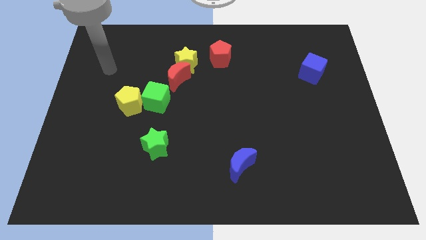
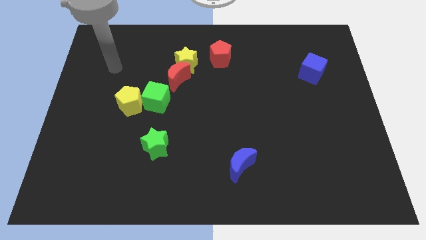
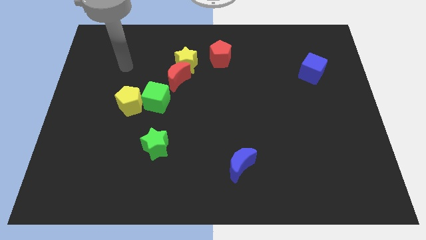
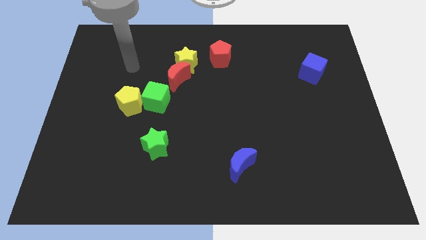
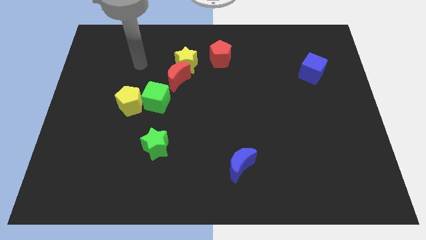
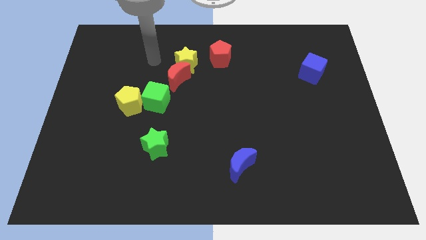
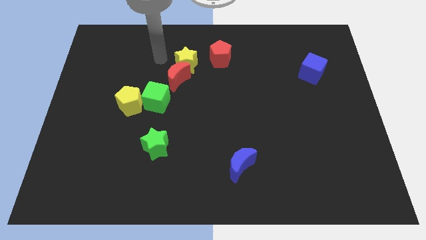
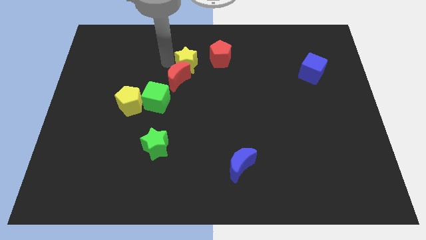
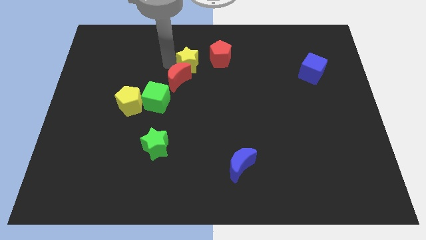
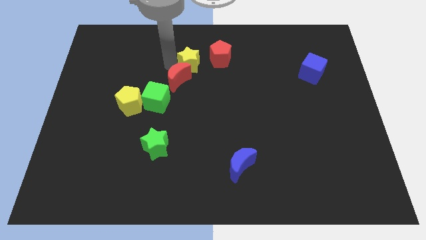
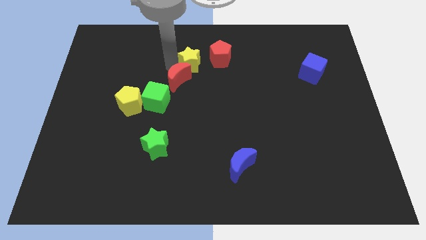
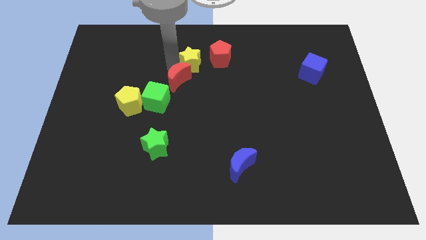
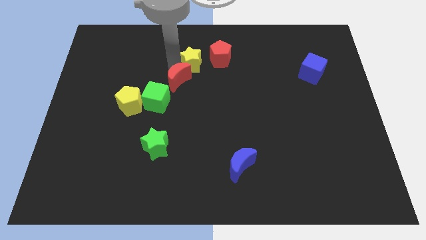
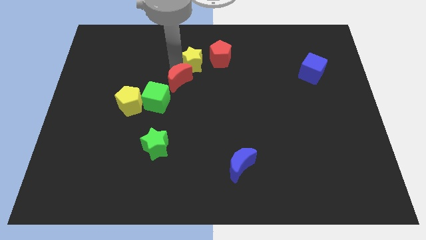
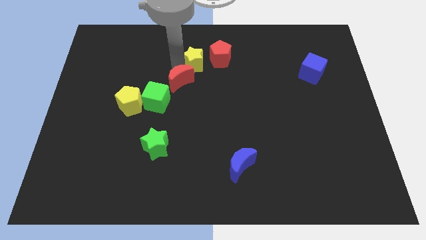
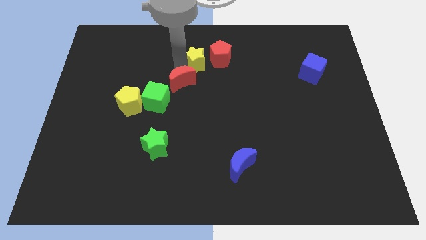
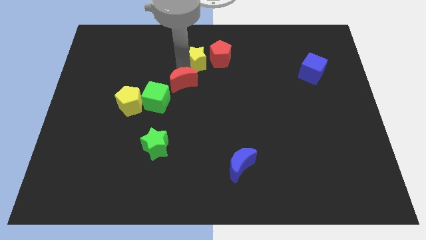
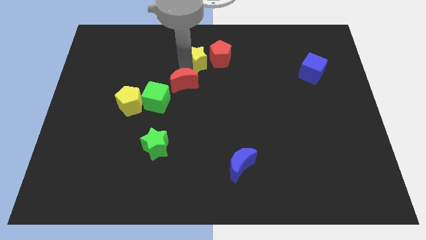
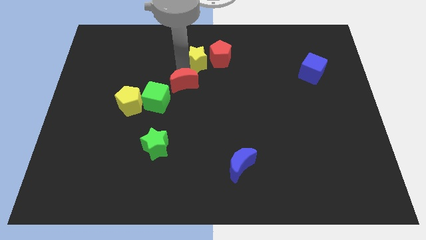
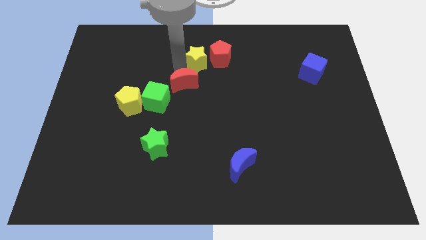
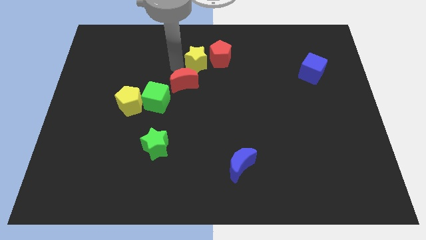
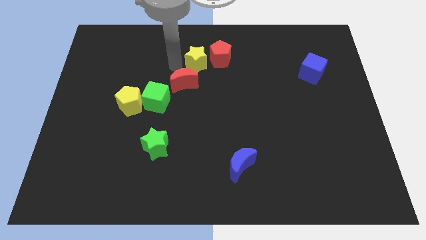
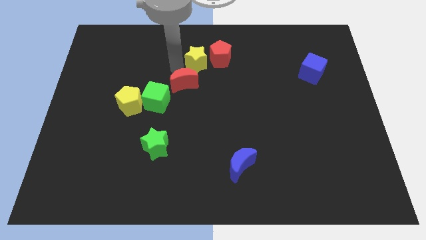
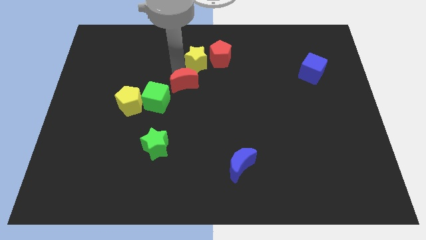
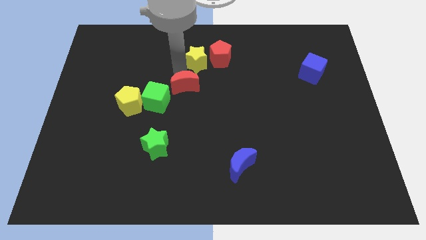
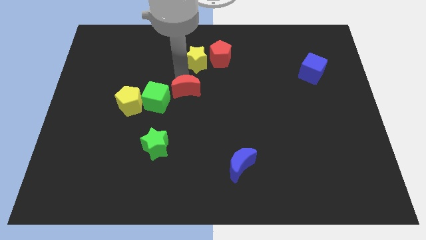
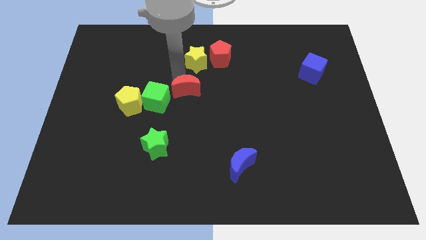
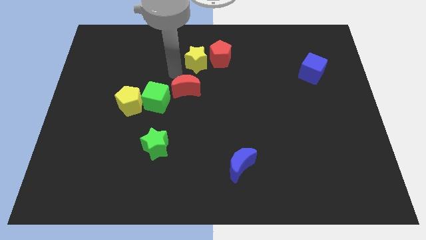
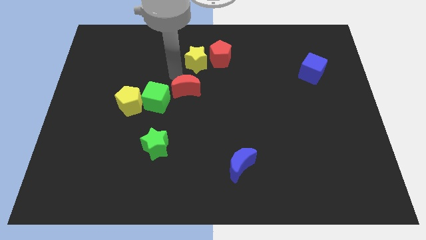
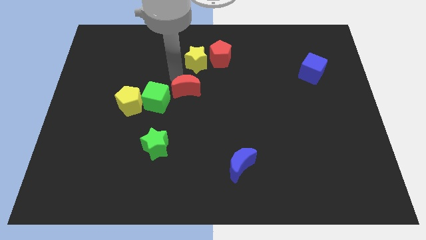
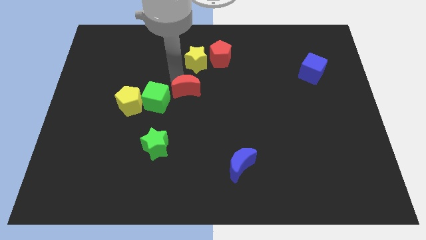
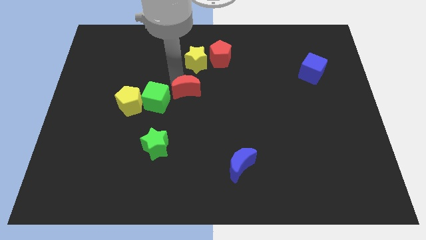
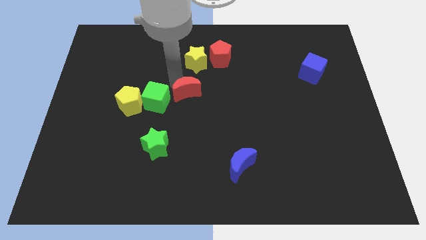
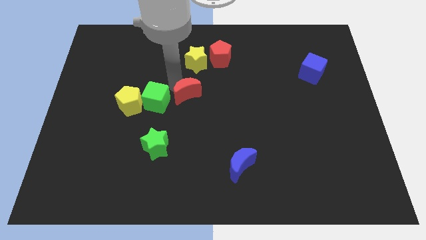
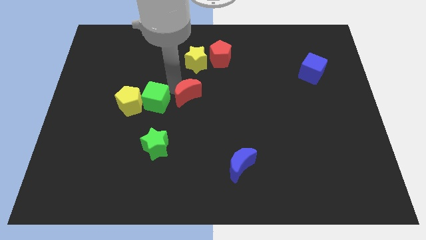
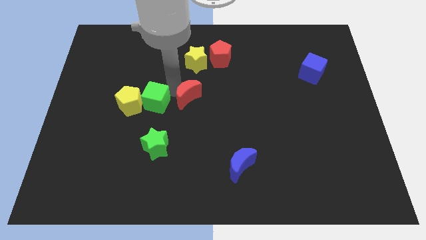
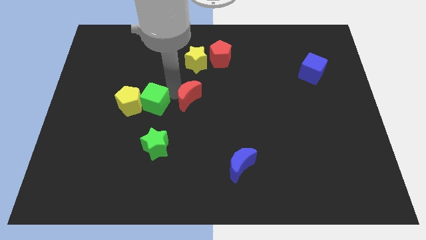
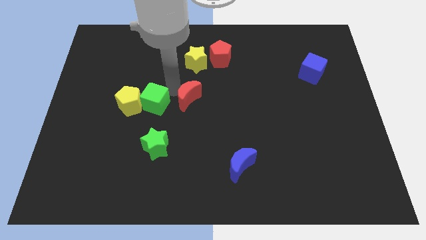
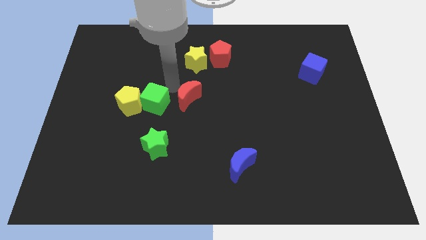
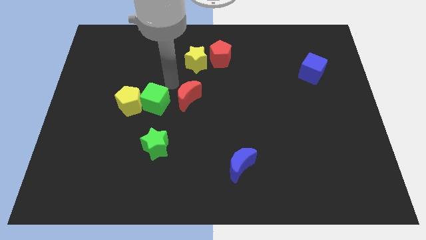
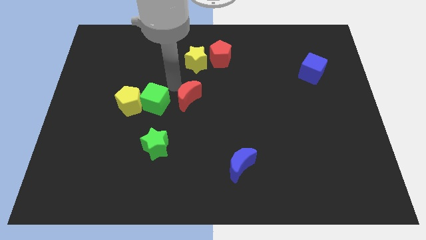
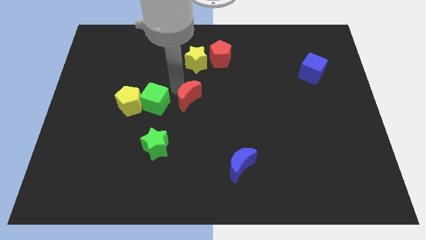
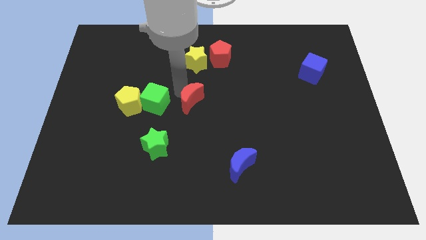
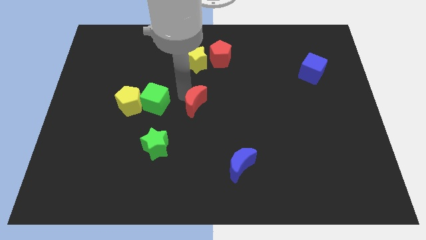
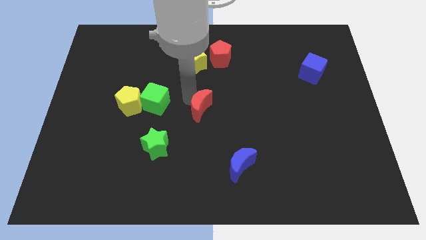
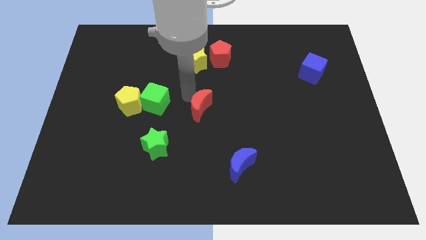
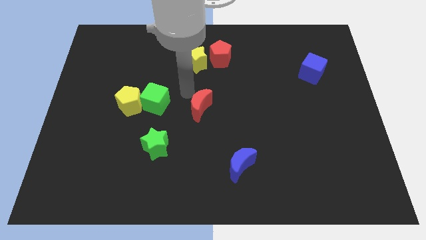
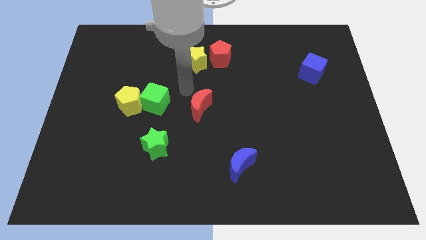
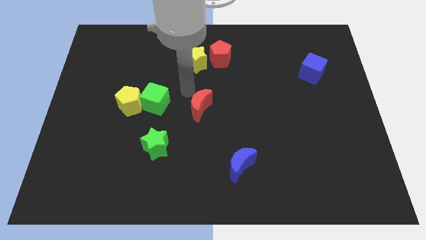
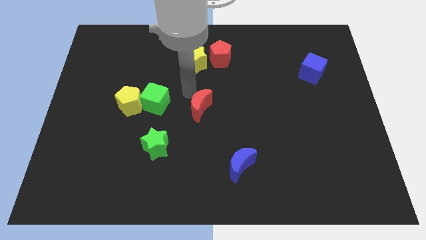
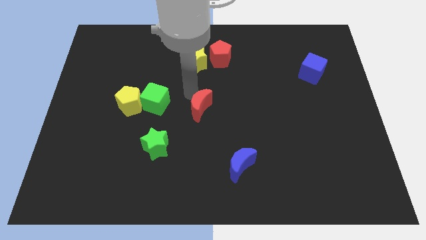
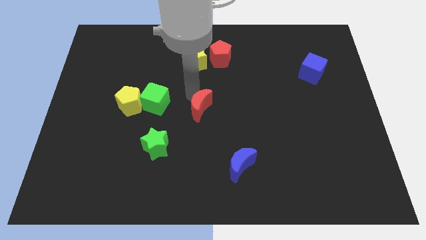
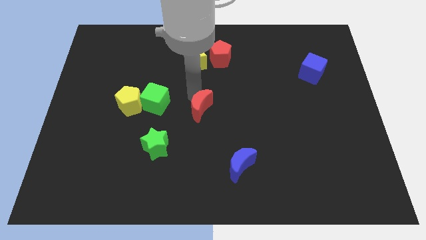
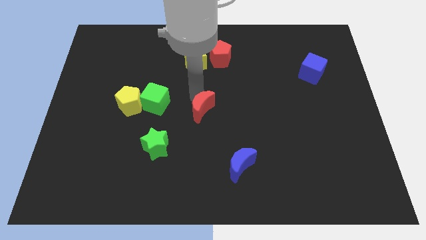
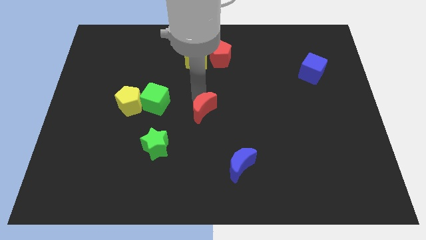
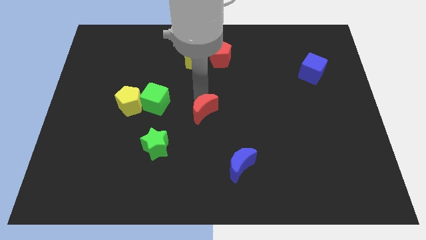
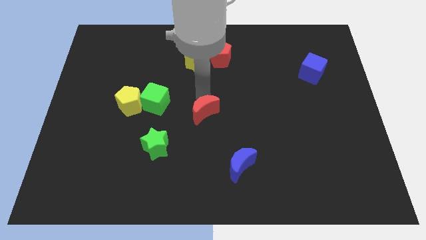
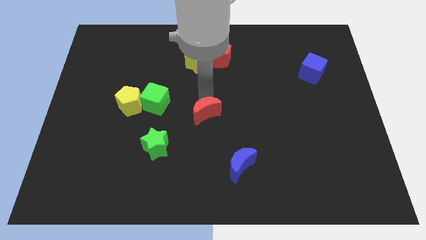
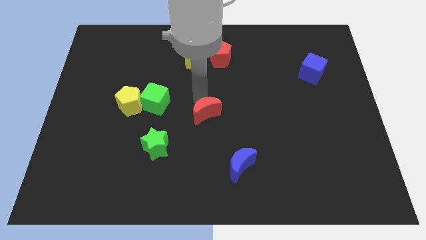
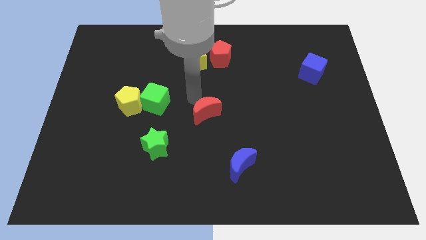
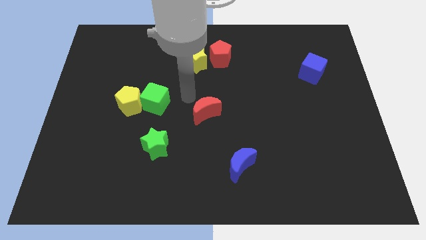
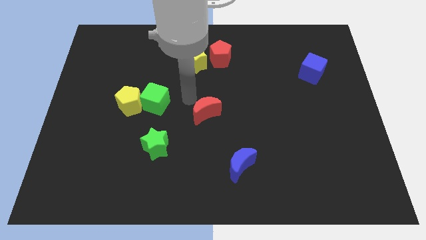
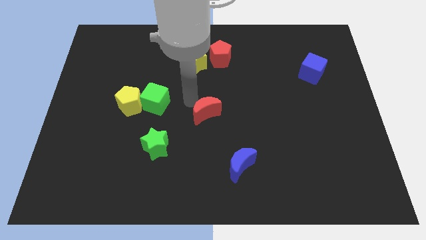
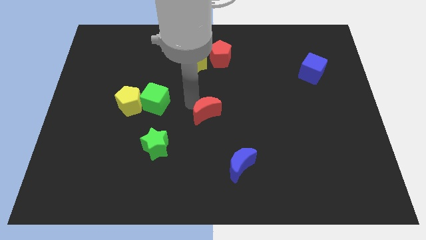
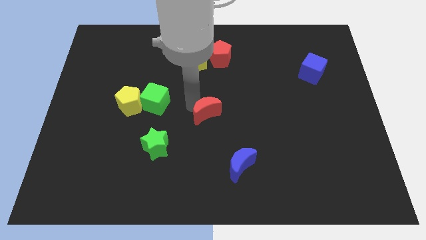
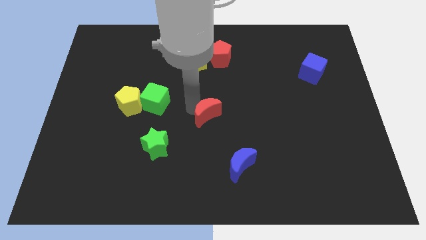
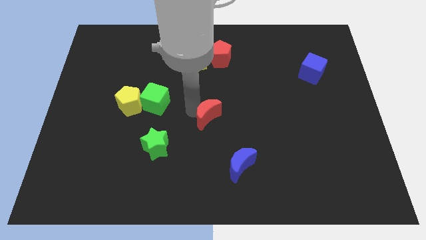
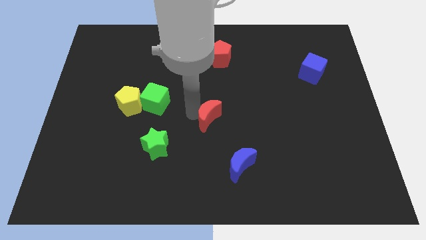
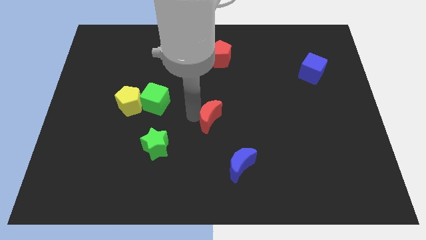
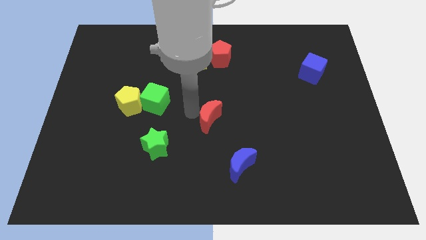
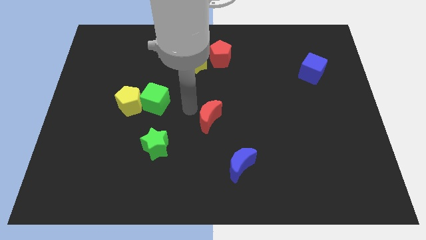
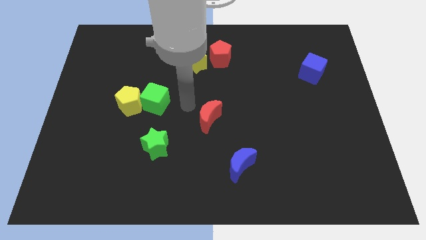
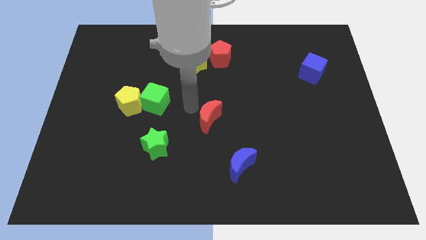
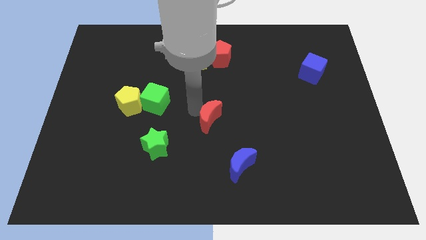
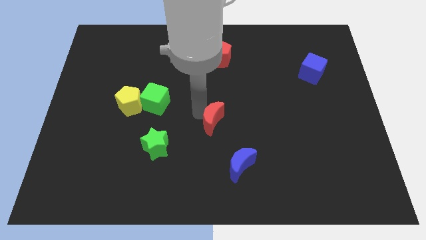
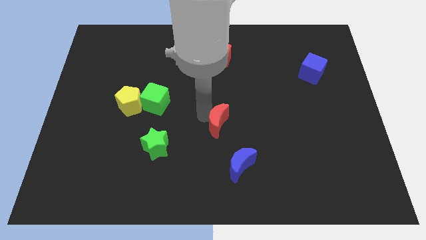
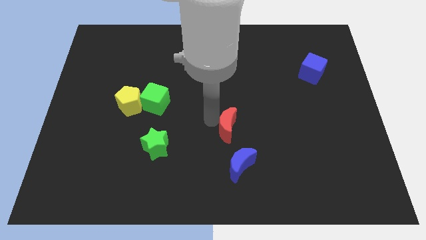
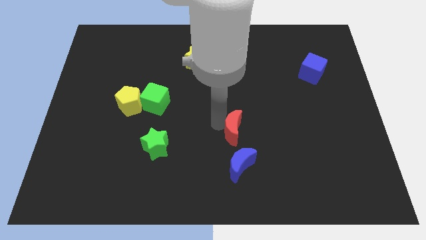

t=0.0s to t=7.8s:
push the red moon down and then to the right

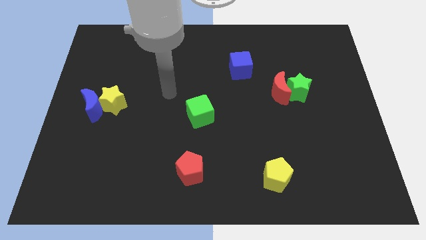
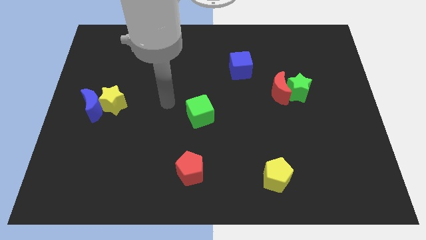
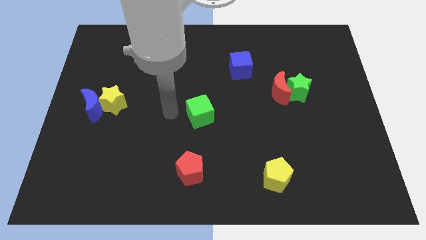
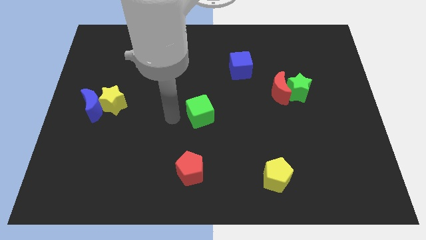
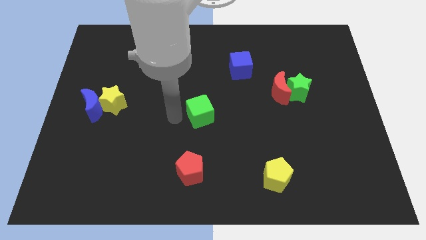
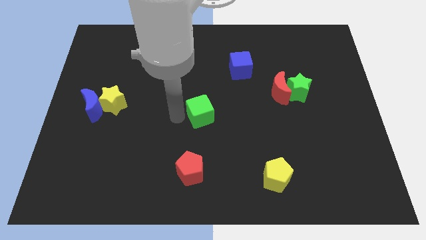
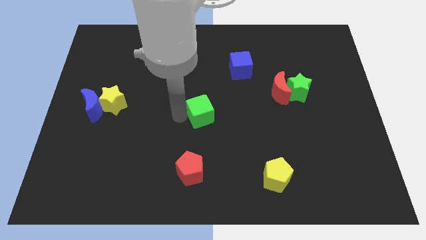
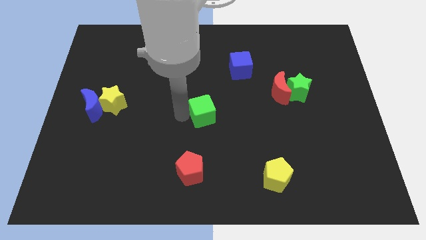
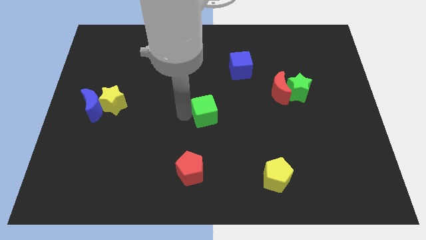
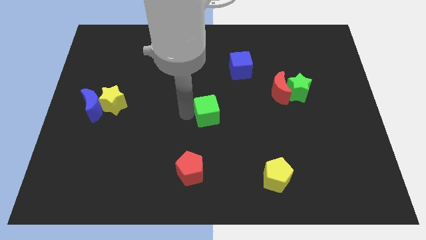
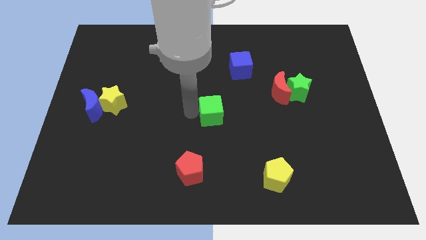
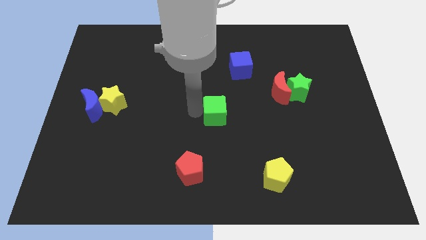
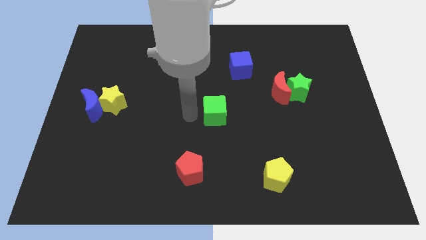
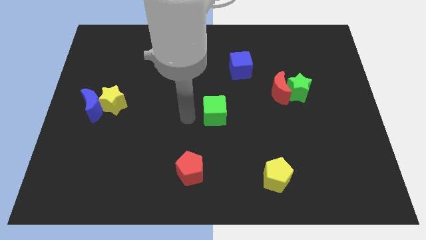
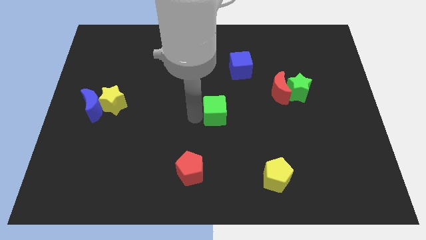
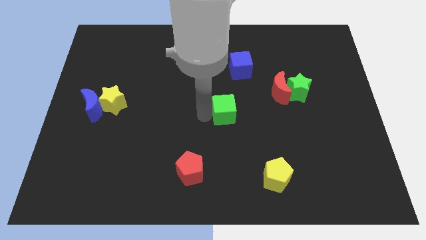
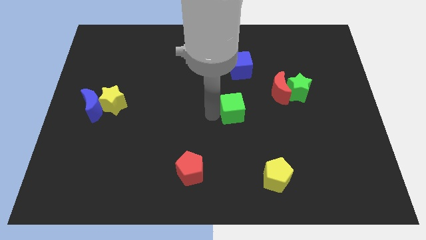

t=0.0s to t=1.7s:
move the green cube right slightly
